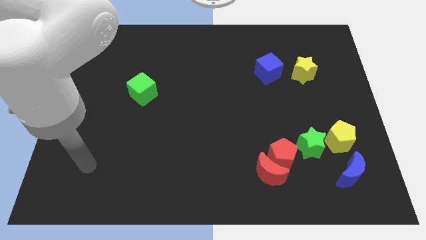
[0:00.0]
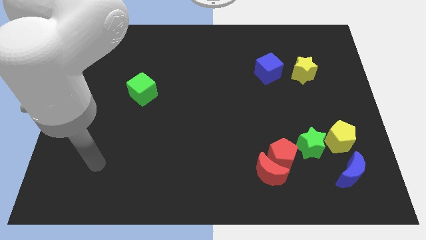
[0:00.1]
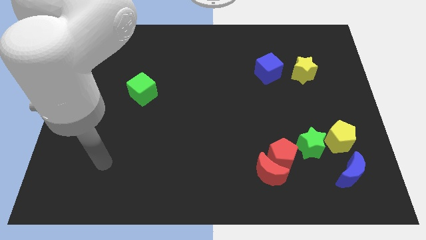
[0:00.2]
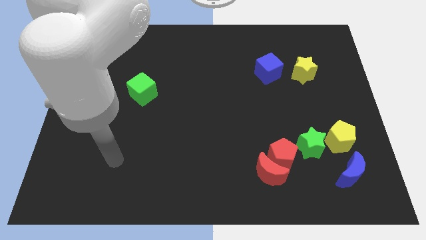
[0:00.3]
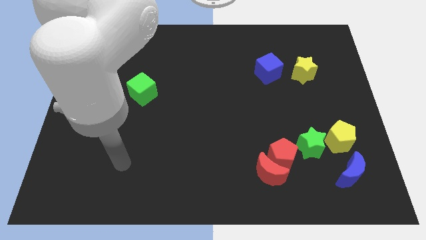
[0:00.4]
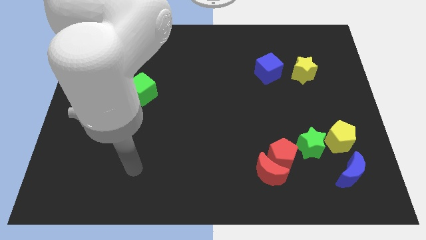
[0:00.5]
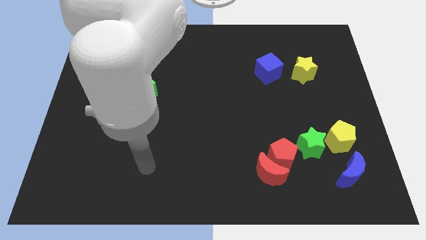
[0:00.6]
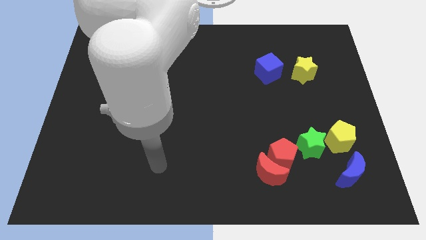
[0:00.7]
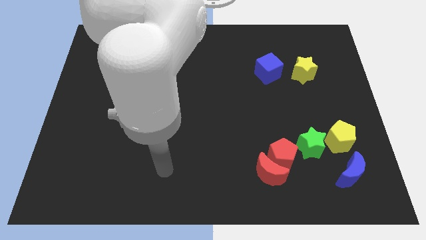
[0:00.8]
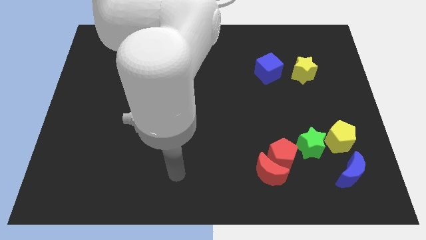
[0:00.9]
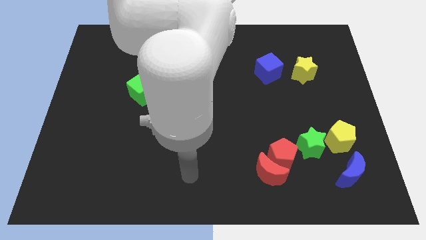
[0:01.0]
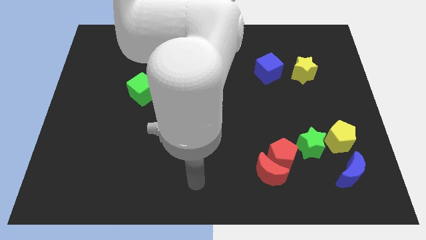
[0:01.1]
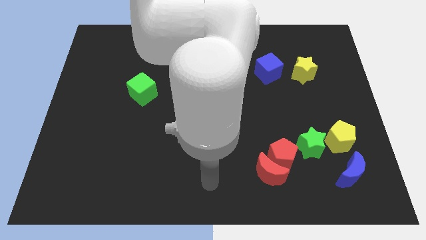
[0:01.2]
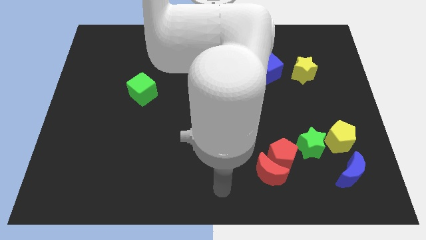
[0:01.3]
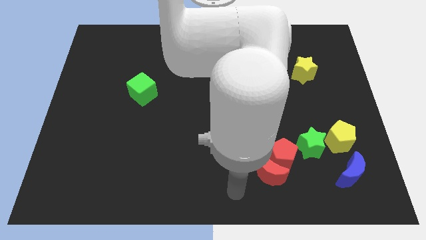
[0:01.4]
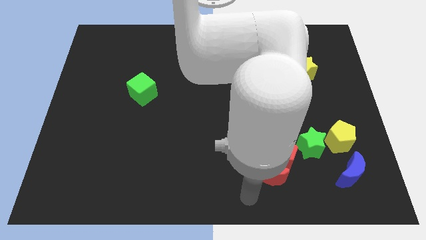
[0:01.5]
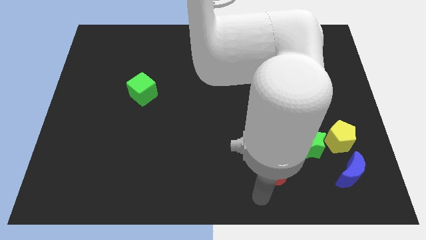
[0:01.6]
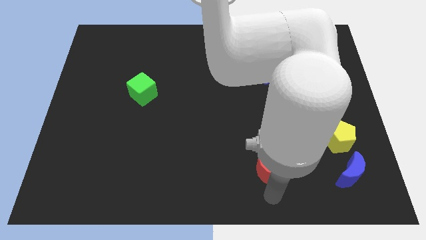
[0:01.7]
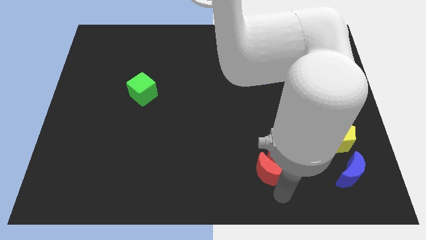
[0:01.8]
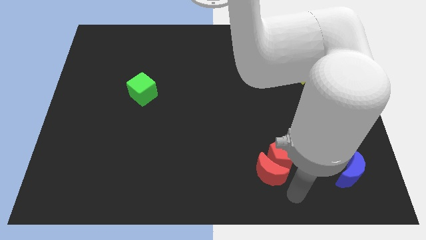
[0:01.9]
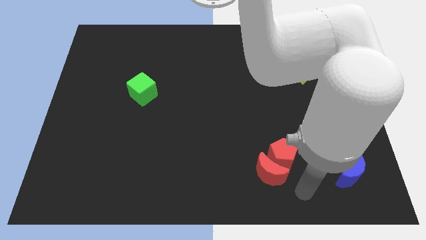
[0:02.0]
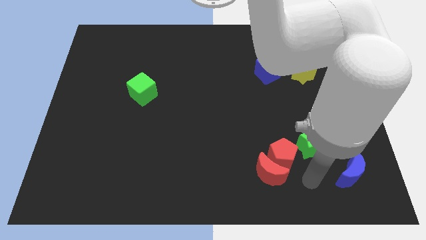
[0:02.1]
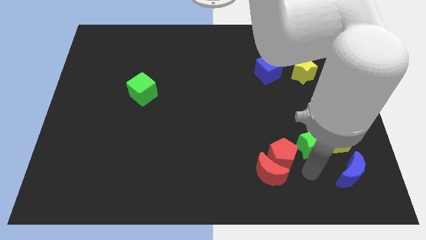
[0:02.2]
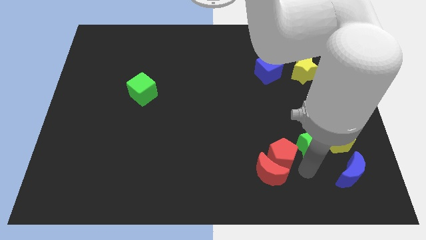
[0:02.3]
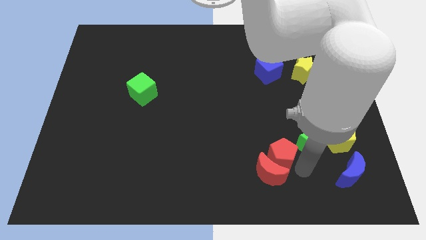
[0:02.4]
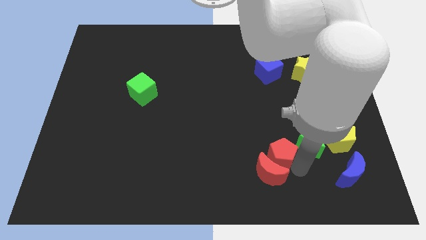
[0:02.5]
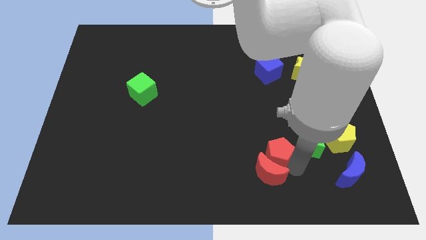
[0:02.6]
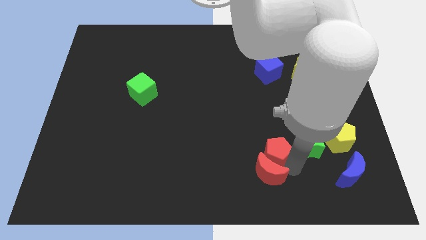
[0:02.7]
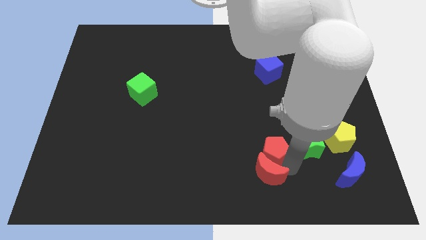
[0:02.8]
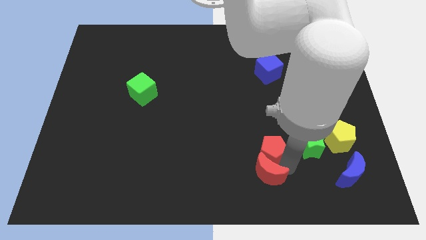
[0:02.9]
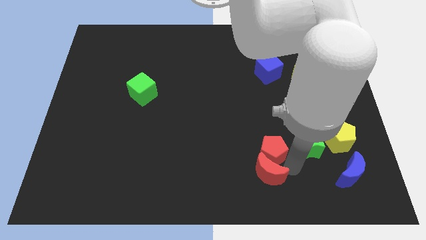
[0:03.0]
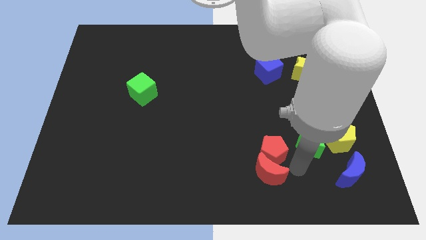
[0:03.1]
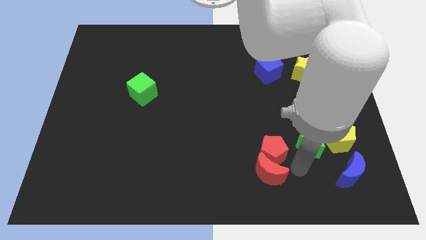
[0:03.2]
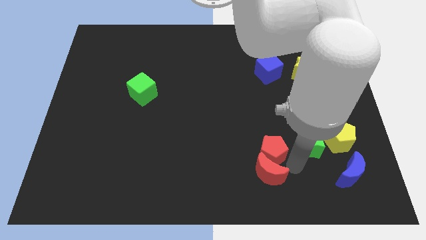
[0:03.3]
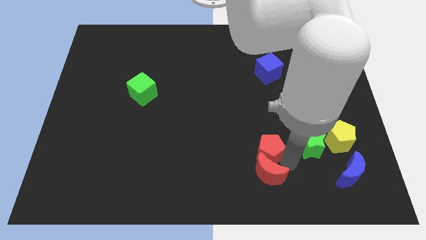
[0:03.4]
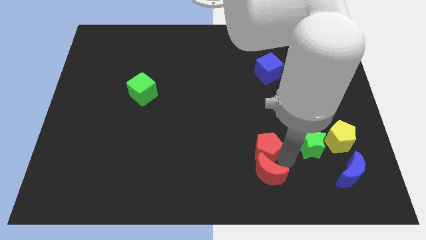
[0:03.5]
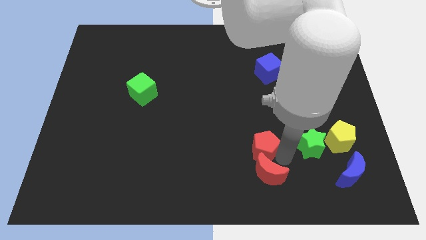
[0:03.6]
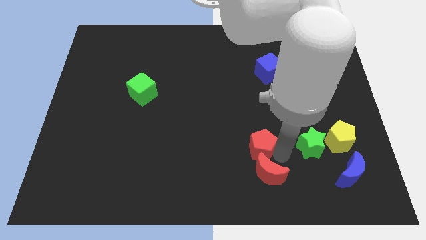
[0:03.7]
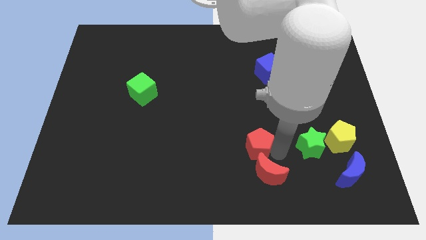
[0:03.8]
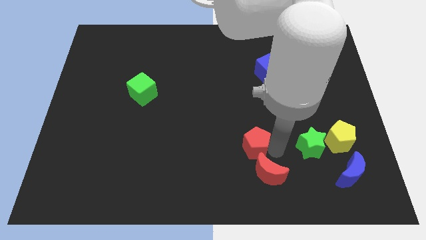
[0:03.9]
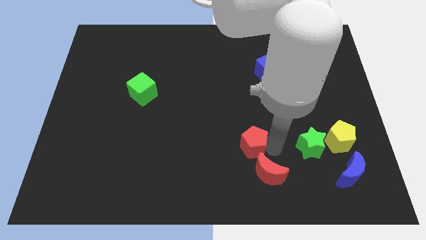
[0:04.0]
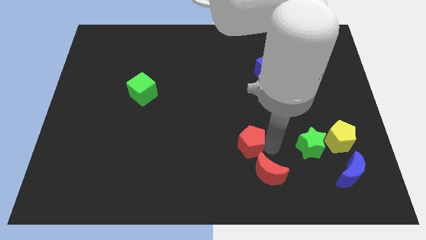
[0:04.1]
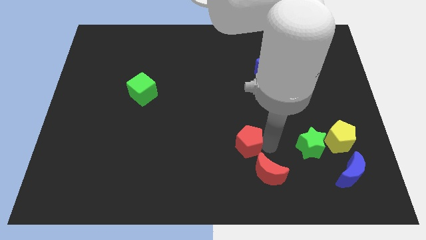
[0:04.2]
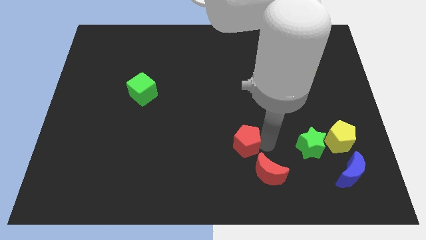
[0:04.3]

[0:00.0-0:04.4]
push the red pentagon left slightly

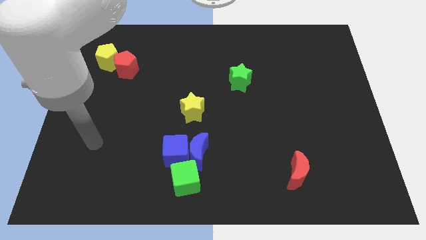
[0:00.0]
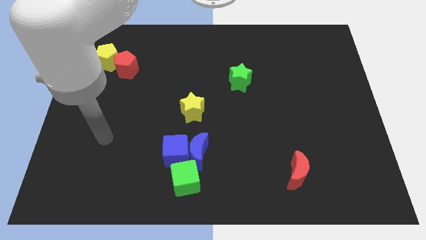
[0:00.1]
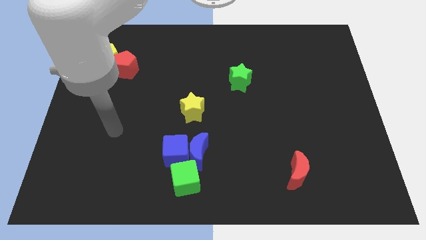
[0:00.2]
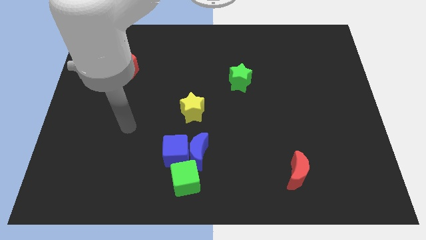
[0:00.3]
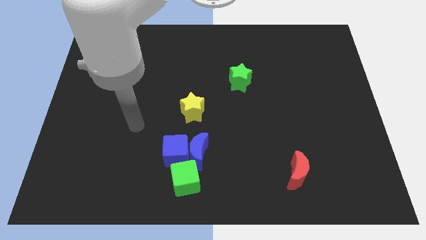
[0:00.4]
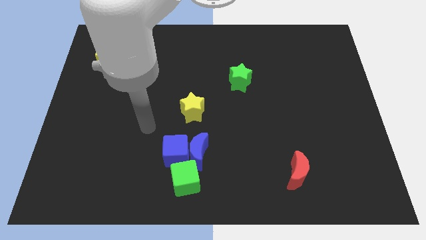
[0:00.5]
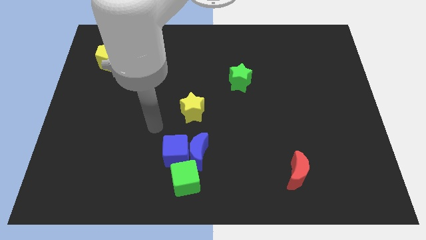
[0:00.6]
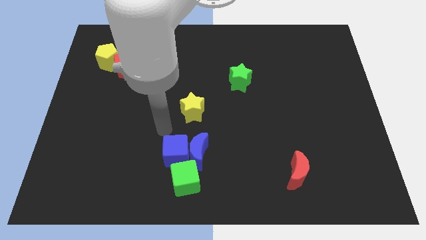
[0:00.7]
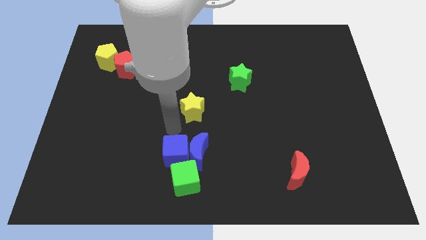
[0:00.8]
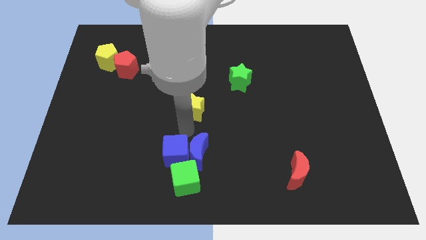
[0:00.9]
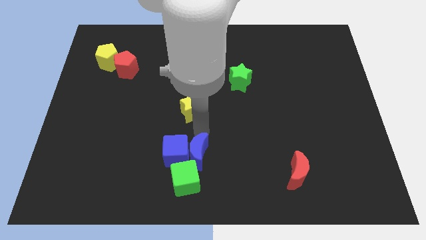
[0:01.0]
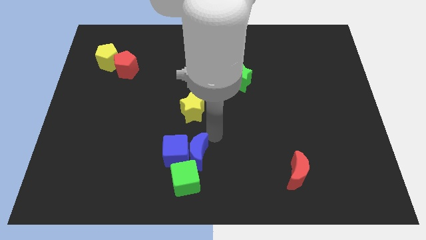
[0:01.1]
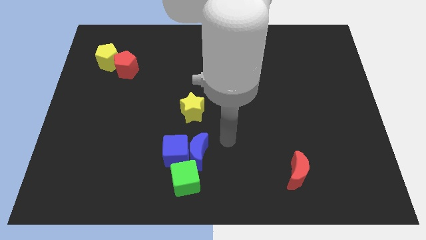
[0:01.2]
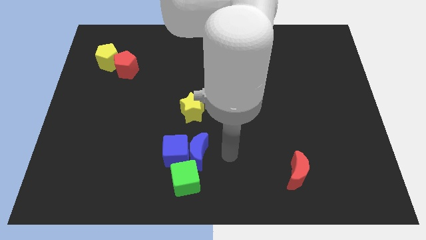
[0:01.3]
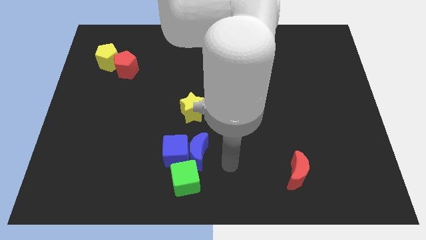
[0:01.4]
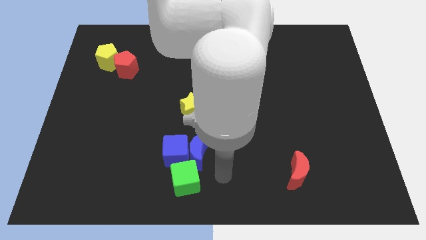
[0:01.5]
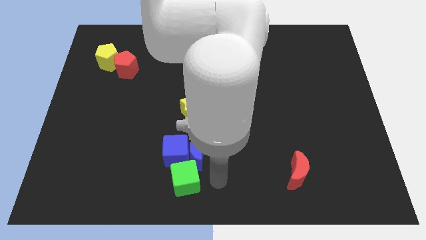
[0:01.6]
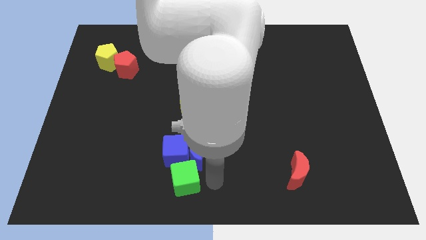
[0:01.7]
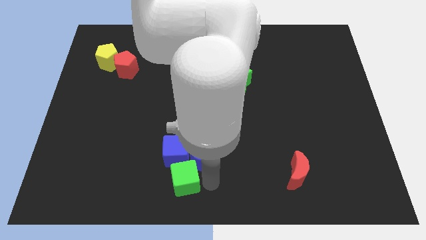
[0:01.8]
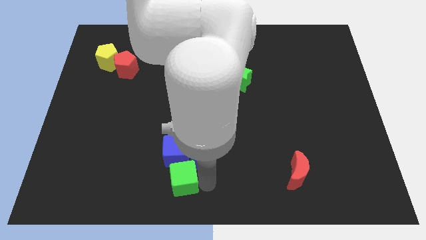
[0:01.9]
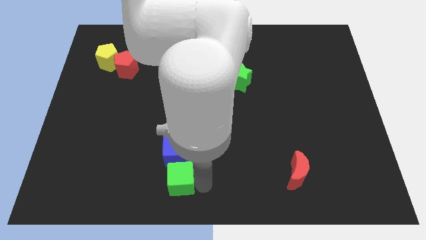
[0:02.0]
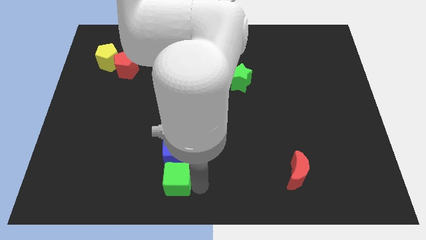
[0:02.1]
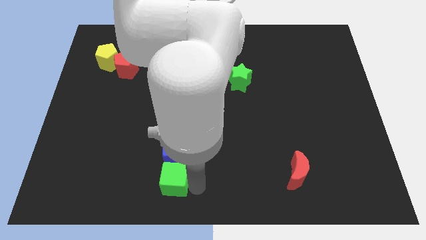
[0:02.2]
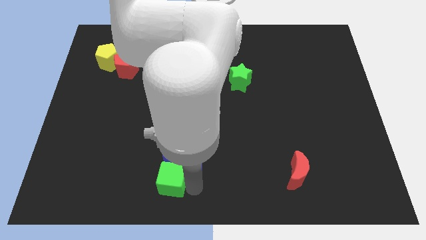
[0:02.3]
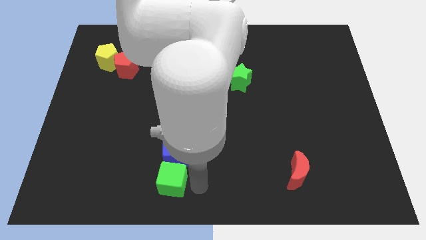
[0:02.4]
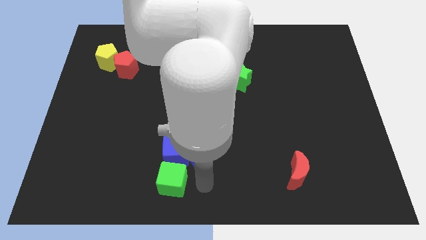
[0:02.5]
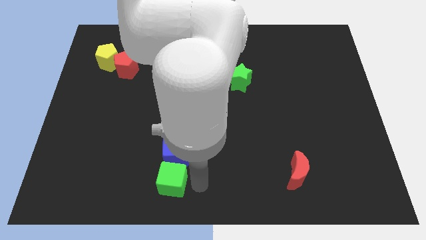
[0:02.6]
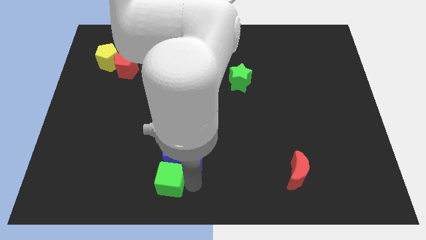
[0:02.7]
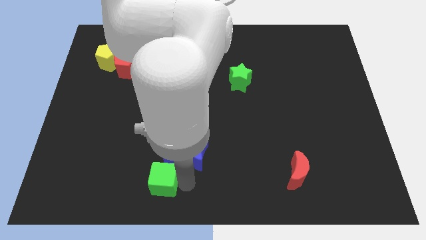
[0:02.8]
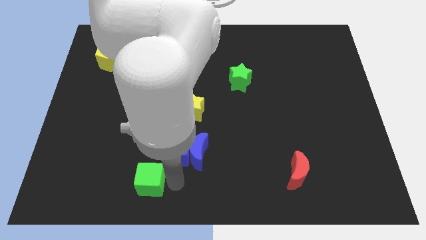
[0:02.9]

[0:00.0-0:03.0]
slide the green cube to the left a little bit
